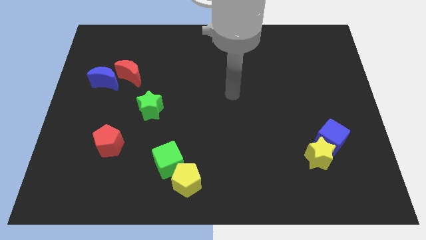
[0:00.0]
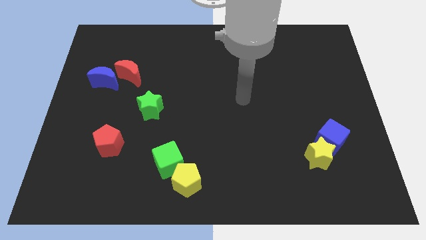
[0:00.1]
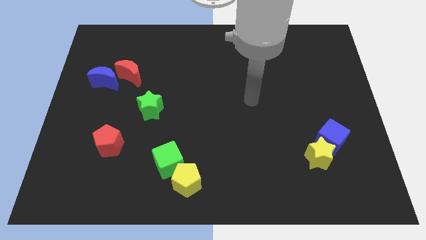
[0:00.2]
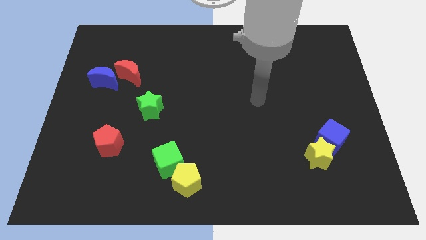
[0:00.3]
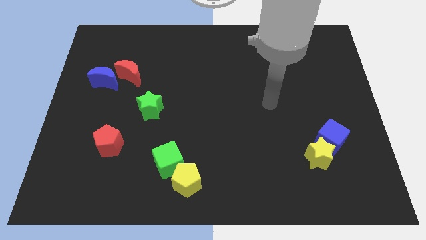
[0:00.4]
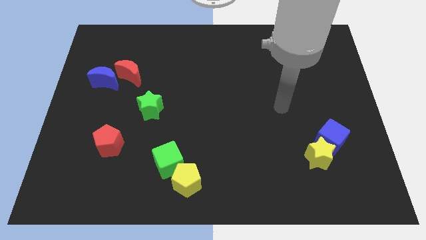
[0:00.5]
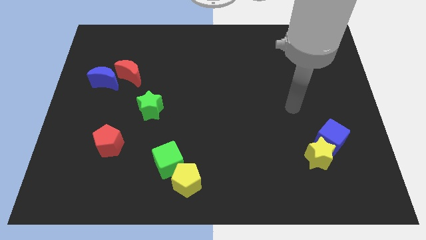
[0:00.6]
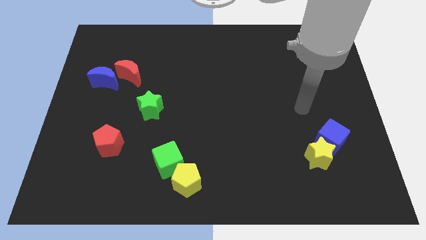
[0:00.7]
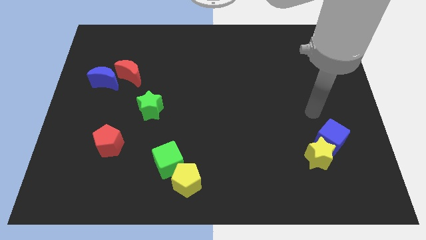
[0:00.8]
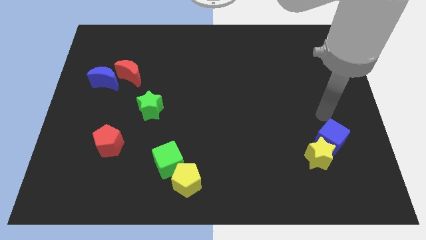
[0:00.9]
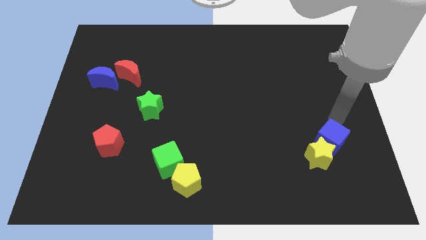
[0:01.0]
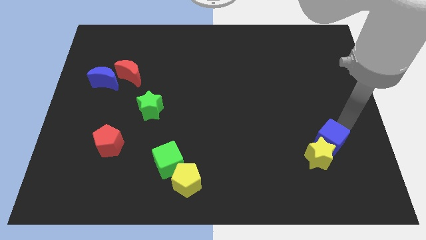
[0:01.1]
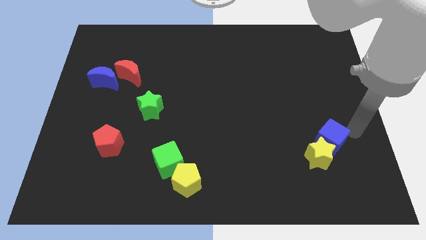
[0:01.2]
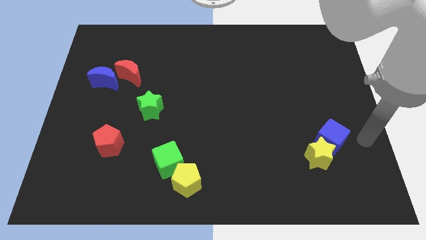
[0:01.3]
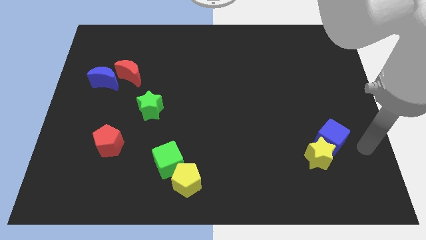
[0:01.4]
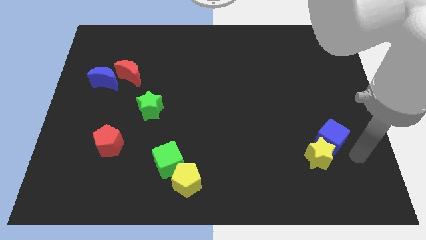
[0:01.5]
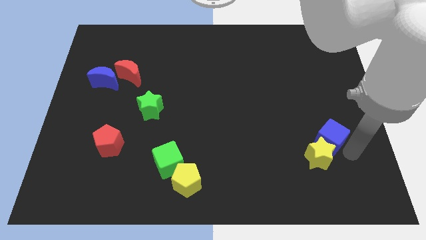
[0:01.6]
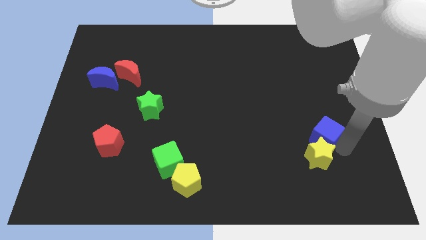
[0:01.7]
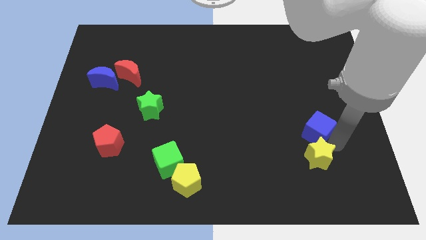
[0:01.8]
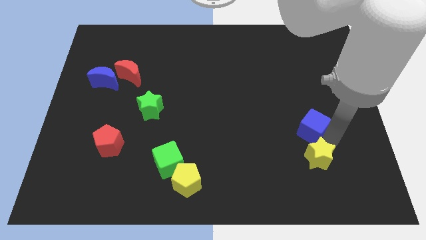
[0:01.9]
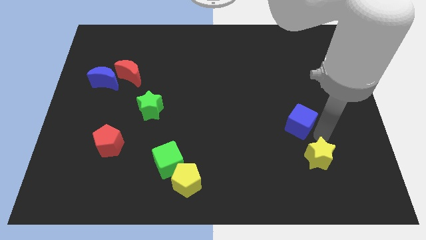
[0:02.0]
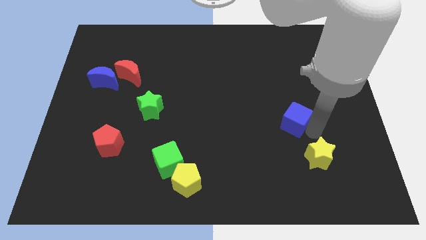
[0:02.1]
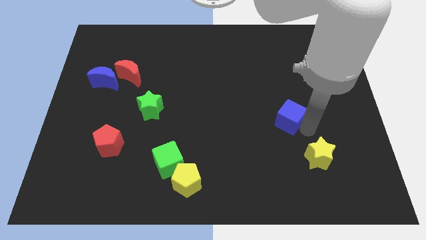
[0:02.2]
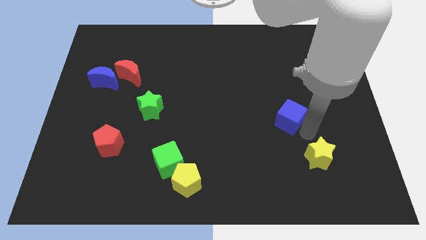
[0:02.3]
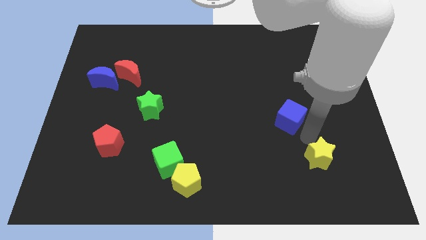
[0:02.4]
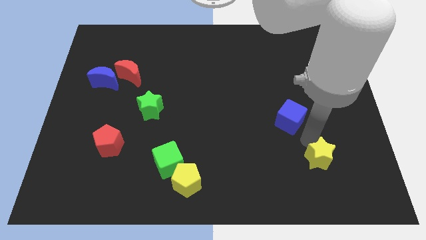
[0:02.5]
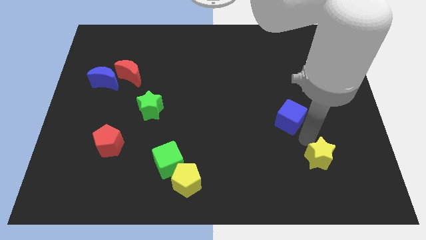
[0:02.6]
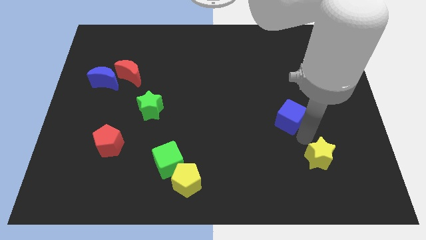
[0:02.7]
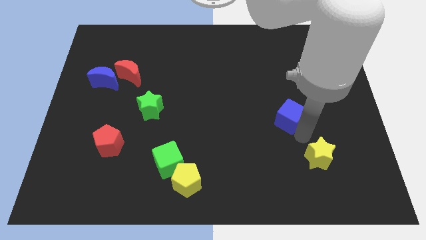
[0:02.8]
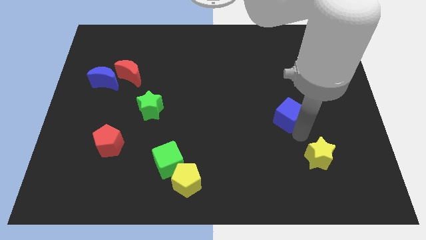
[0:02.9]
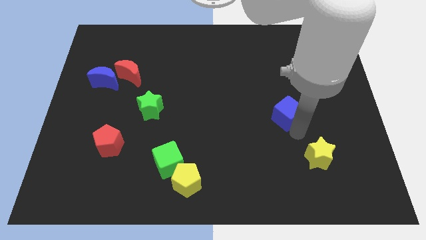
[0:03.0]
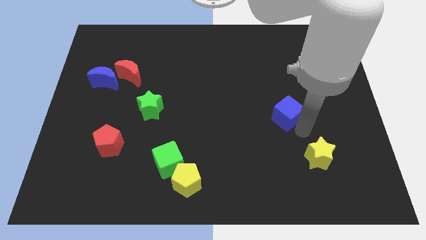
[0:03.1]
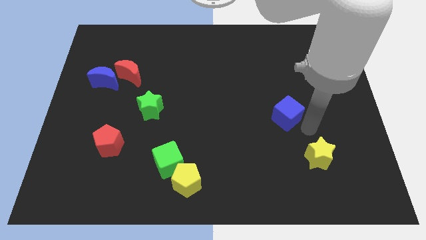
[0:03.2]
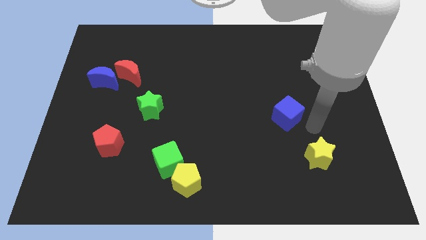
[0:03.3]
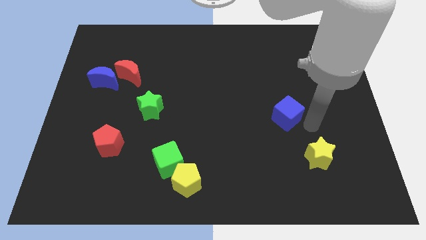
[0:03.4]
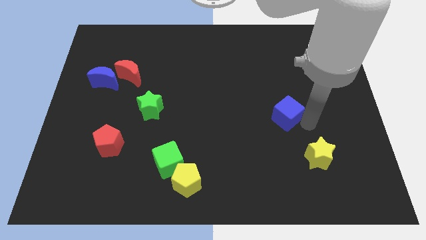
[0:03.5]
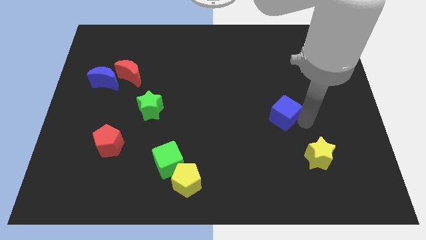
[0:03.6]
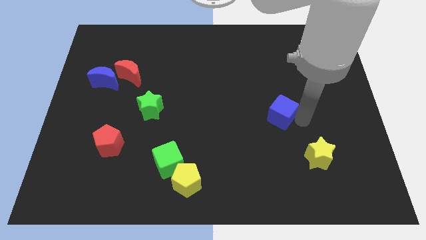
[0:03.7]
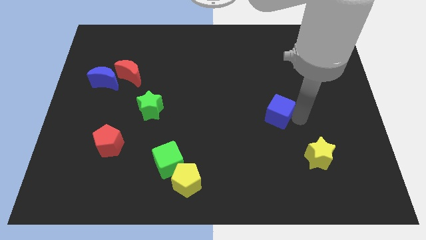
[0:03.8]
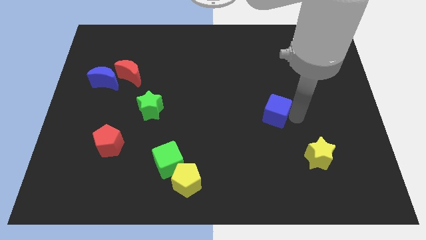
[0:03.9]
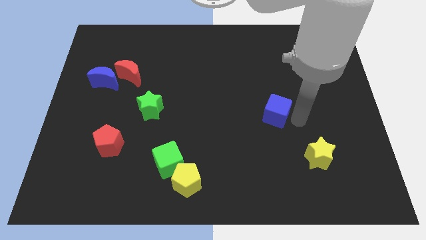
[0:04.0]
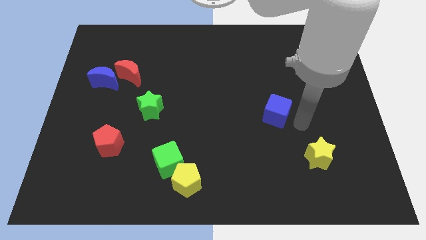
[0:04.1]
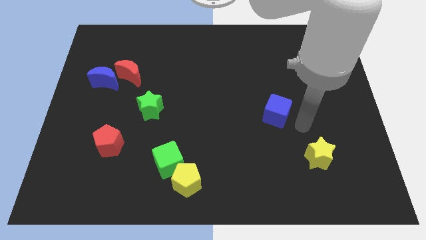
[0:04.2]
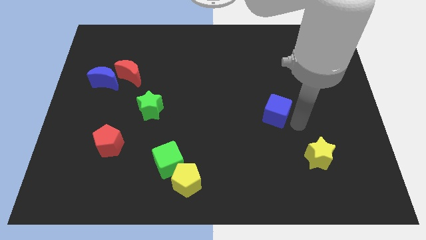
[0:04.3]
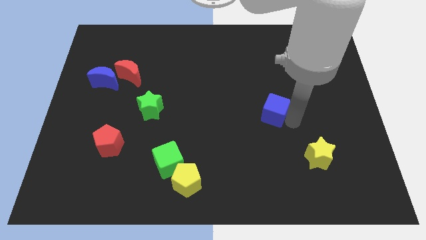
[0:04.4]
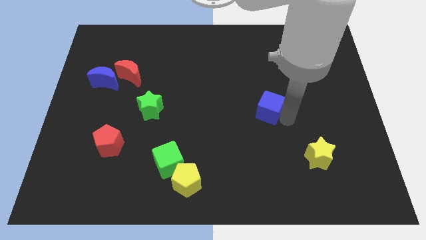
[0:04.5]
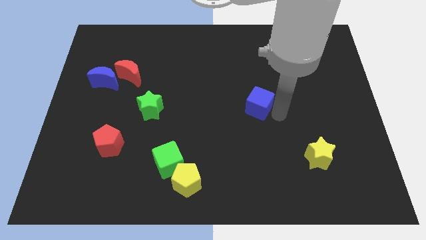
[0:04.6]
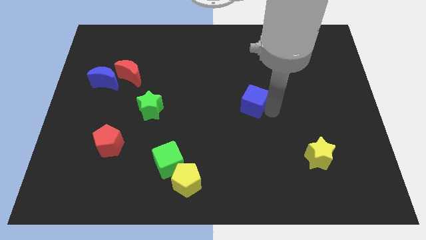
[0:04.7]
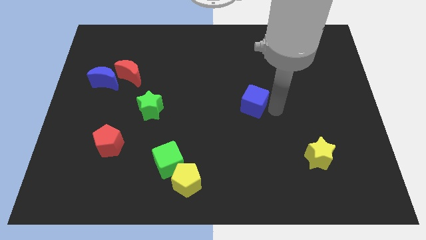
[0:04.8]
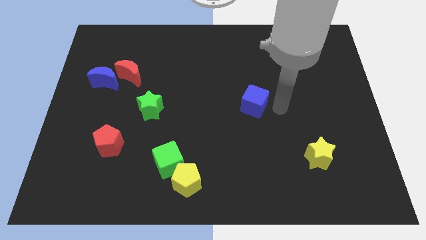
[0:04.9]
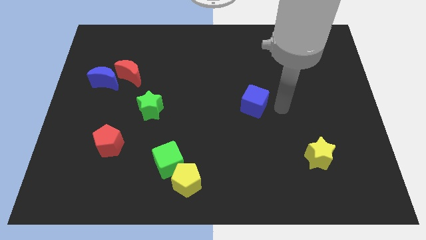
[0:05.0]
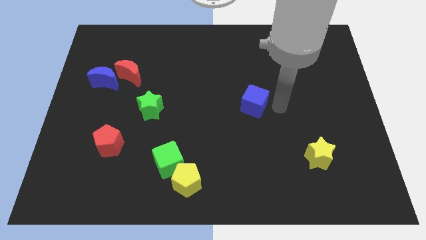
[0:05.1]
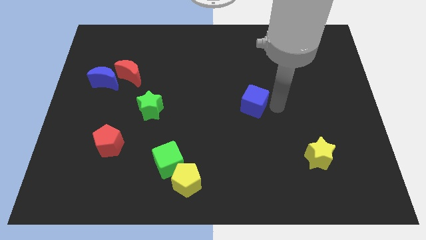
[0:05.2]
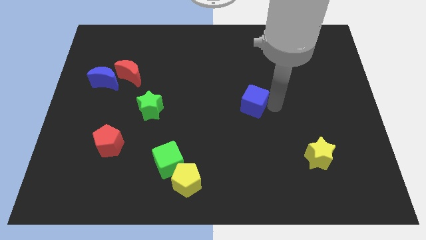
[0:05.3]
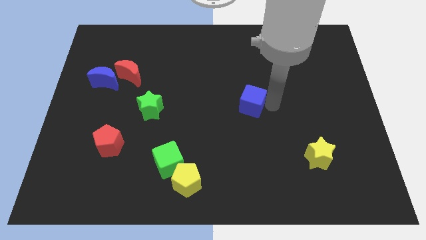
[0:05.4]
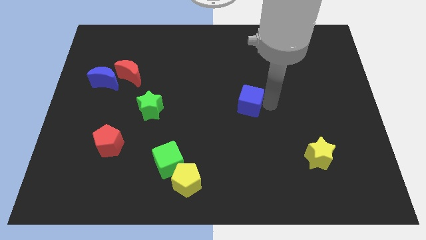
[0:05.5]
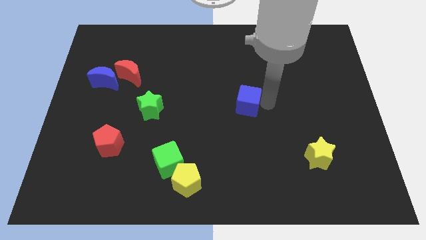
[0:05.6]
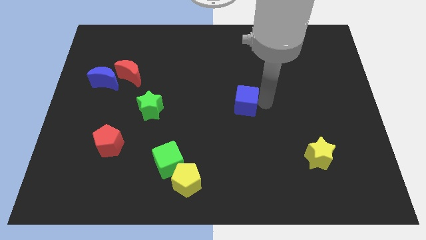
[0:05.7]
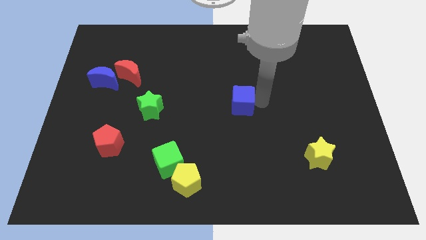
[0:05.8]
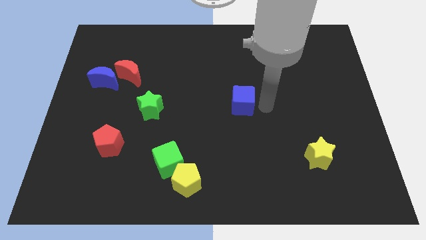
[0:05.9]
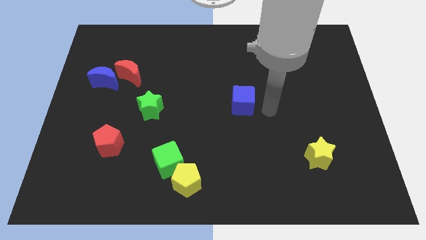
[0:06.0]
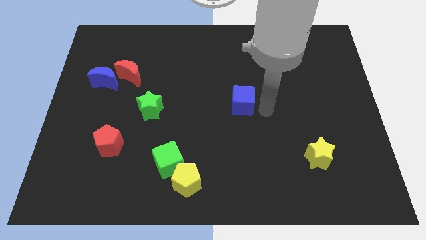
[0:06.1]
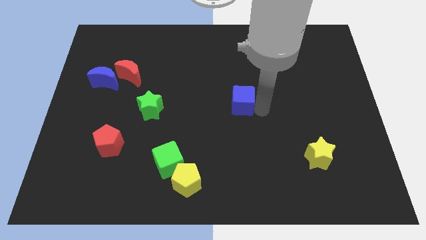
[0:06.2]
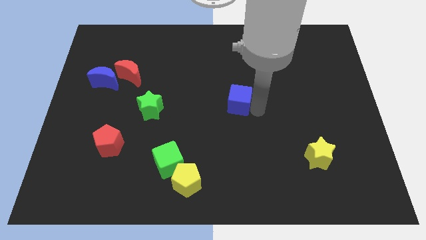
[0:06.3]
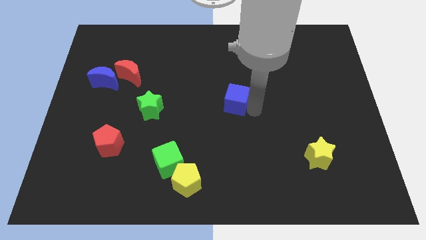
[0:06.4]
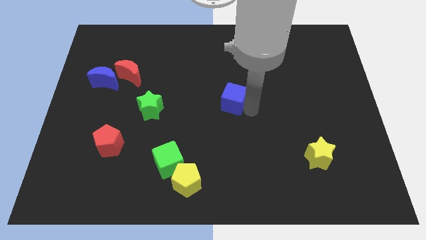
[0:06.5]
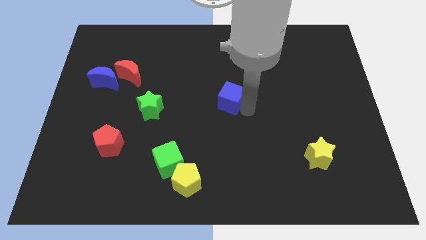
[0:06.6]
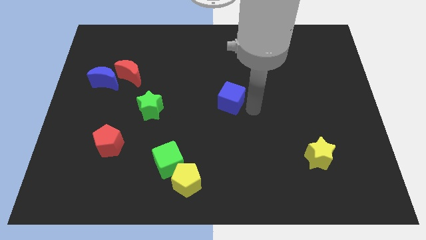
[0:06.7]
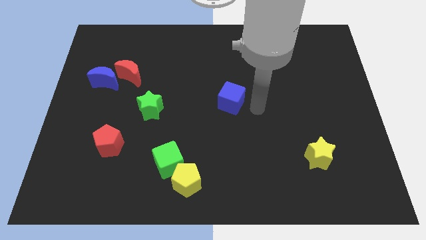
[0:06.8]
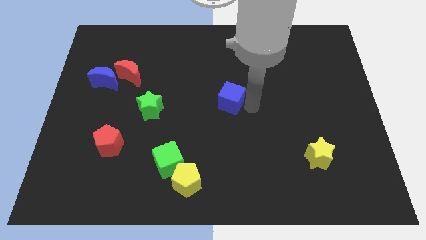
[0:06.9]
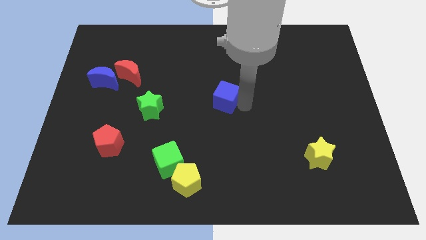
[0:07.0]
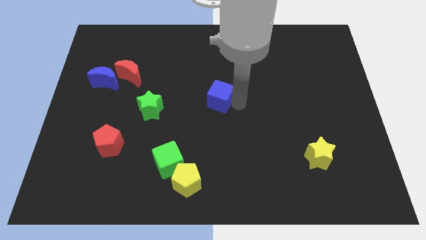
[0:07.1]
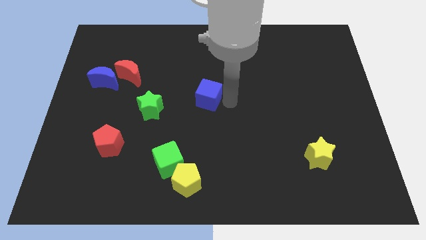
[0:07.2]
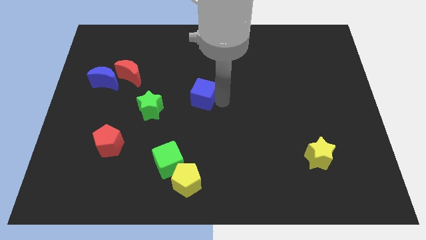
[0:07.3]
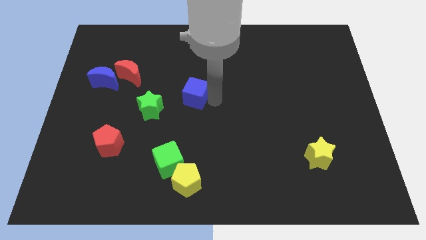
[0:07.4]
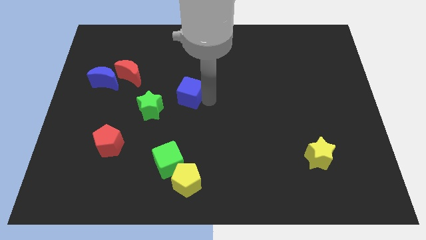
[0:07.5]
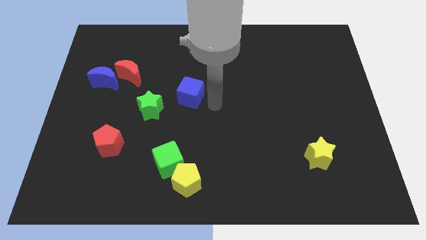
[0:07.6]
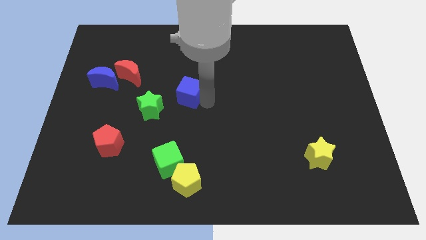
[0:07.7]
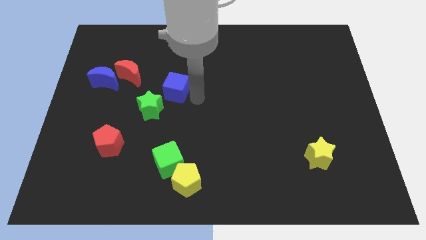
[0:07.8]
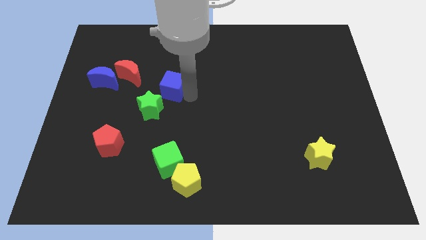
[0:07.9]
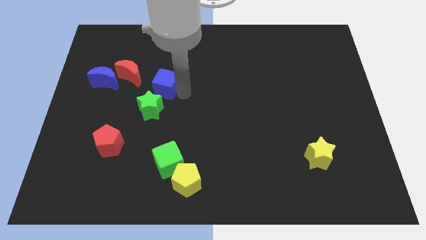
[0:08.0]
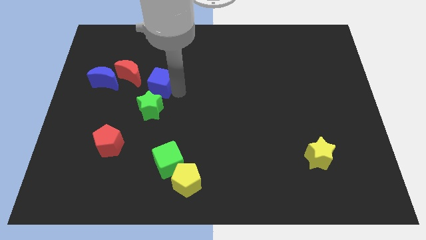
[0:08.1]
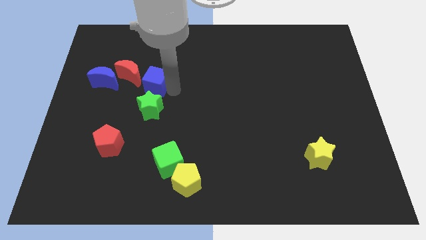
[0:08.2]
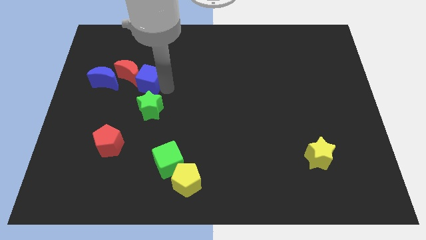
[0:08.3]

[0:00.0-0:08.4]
push the blue cube towards the red moon
